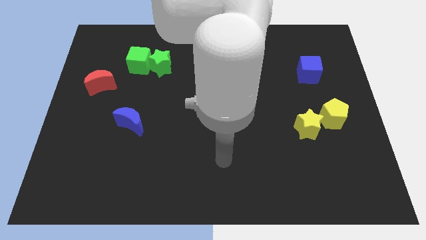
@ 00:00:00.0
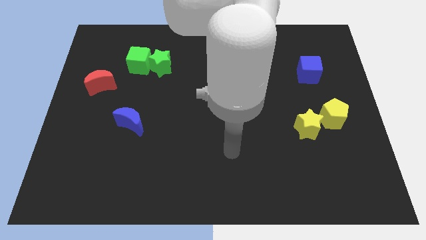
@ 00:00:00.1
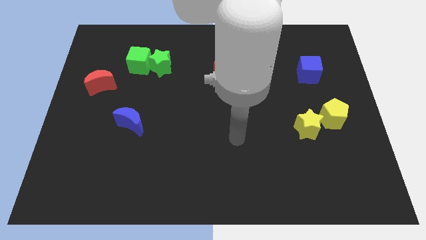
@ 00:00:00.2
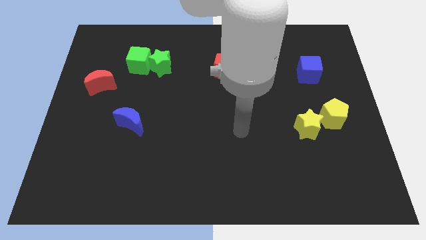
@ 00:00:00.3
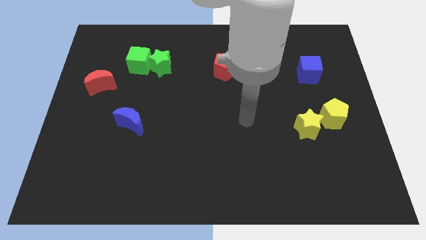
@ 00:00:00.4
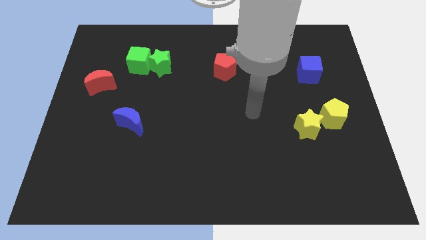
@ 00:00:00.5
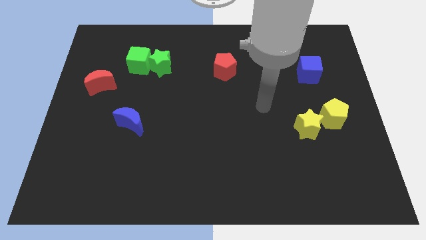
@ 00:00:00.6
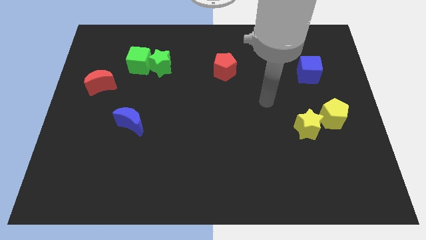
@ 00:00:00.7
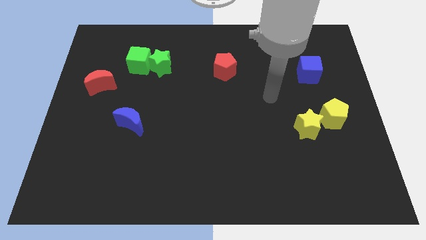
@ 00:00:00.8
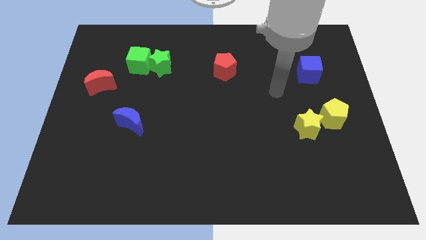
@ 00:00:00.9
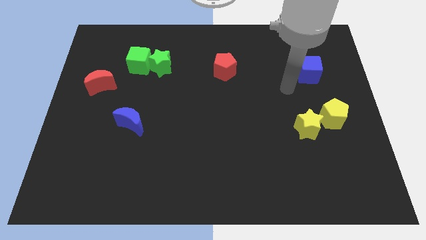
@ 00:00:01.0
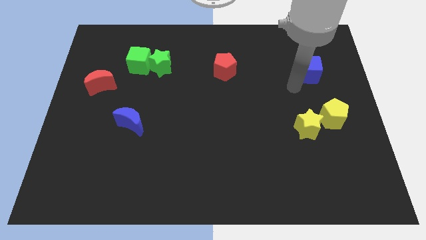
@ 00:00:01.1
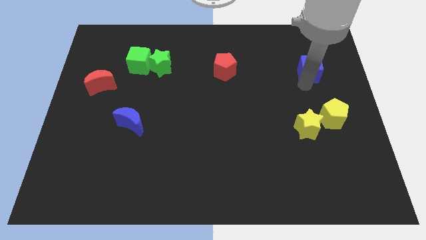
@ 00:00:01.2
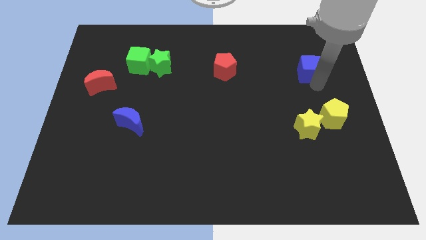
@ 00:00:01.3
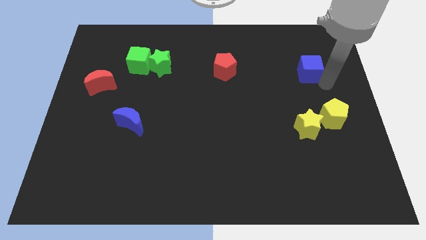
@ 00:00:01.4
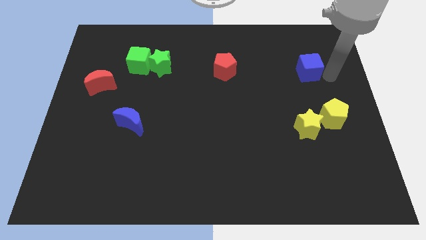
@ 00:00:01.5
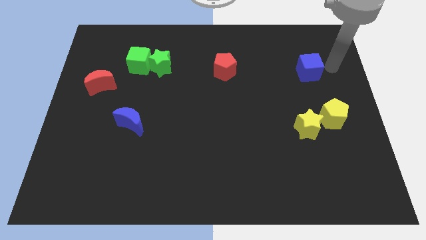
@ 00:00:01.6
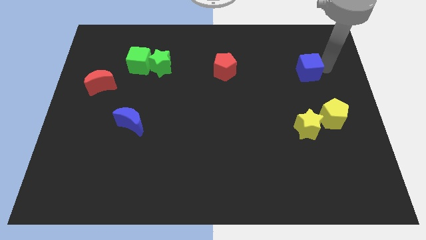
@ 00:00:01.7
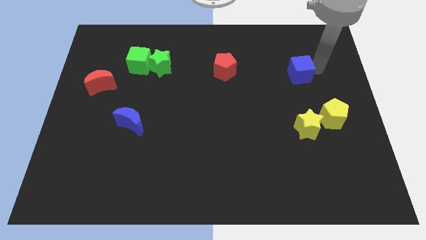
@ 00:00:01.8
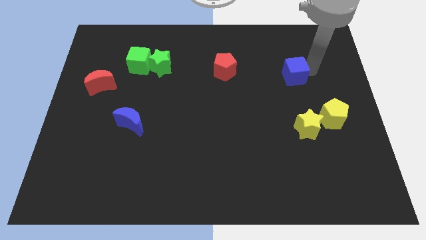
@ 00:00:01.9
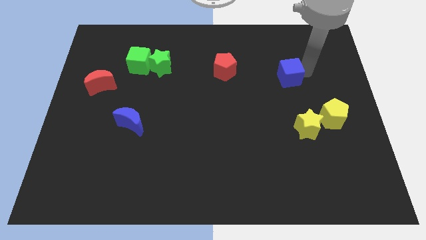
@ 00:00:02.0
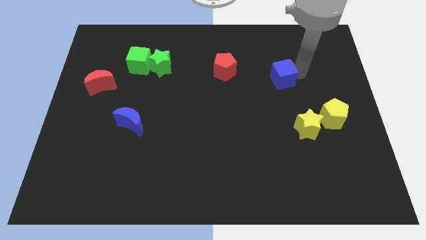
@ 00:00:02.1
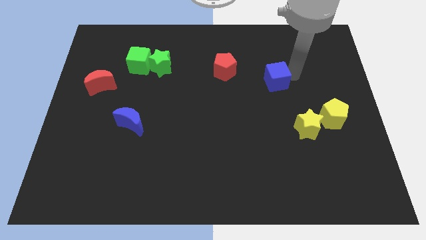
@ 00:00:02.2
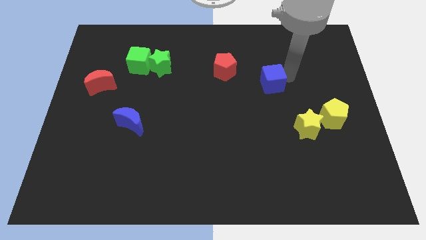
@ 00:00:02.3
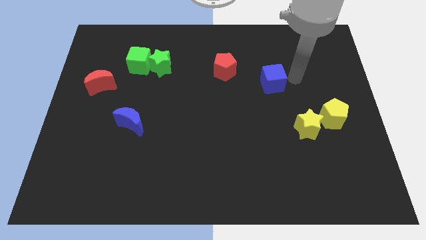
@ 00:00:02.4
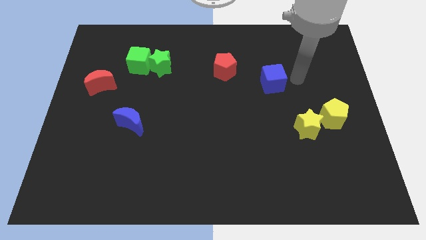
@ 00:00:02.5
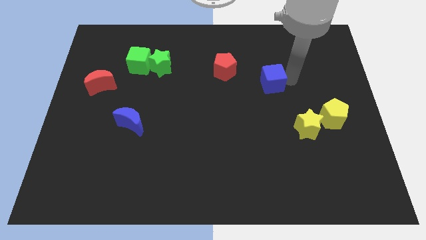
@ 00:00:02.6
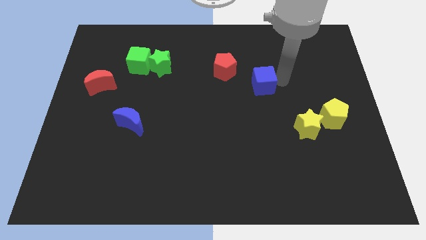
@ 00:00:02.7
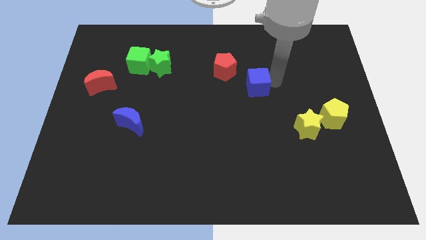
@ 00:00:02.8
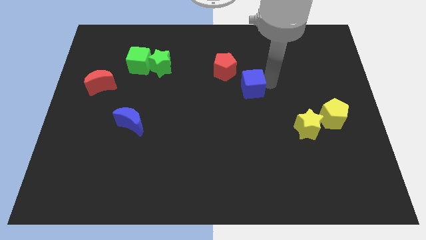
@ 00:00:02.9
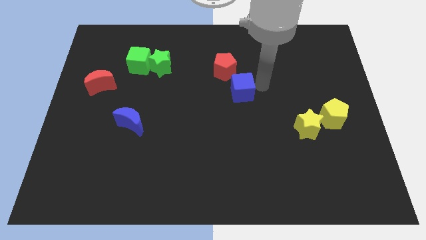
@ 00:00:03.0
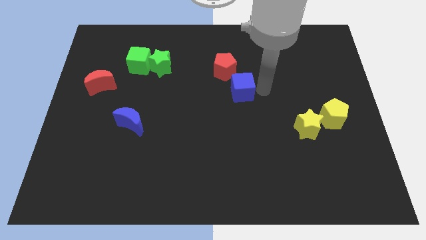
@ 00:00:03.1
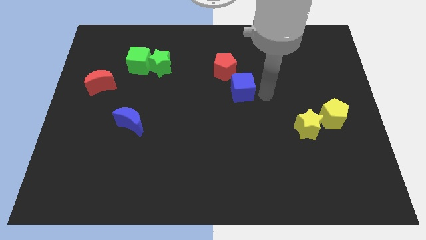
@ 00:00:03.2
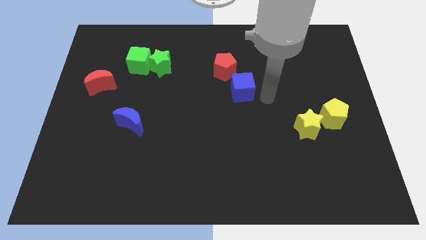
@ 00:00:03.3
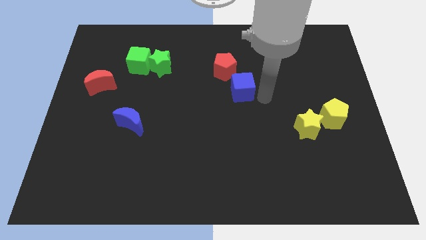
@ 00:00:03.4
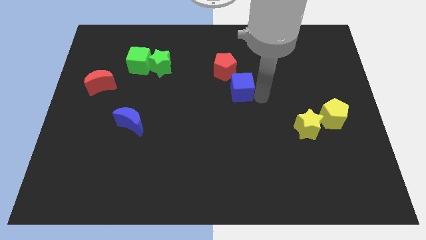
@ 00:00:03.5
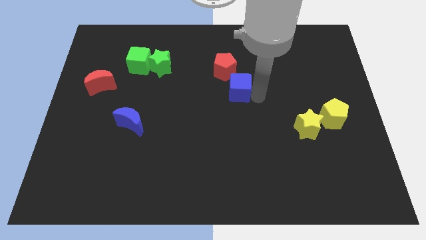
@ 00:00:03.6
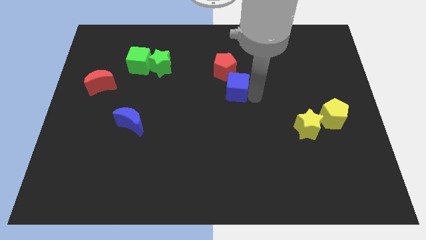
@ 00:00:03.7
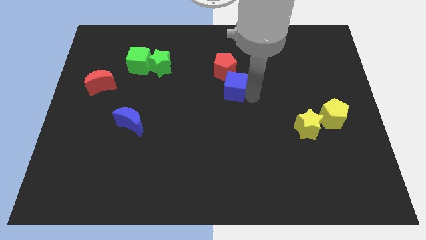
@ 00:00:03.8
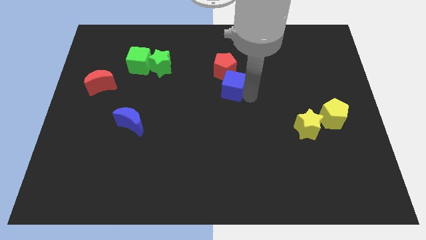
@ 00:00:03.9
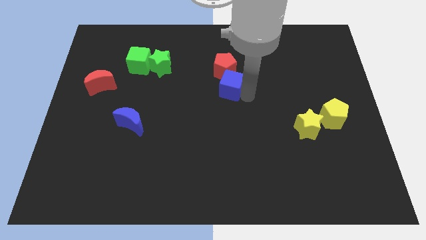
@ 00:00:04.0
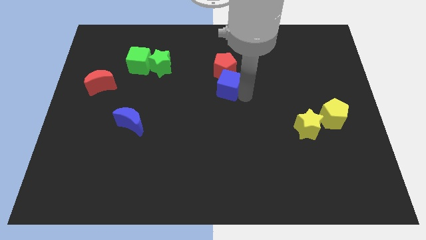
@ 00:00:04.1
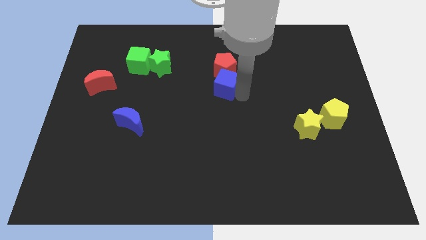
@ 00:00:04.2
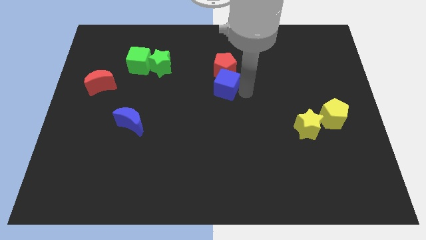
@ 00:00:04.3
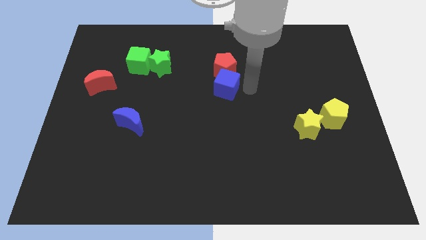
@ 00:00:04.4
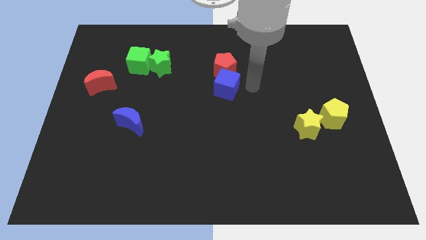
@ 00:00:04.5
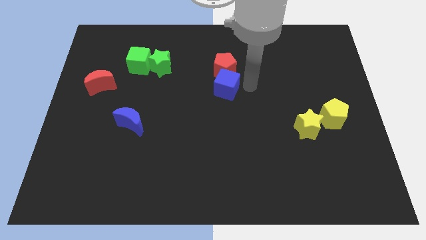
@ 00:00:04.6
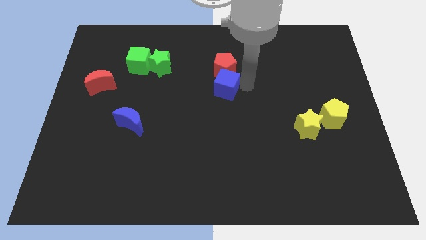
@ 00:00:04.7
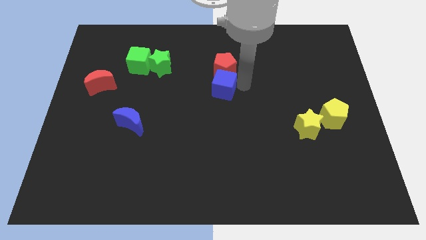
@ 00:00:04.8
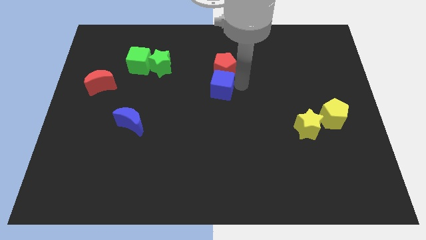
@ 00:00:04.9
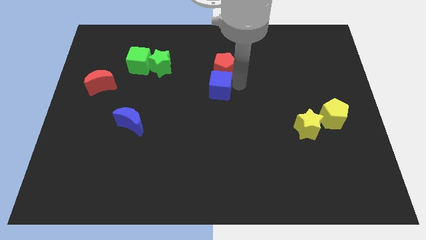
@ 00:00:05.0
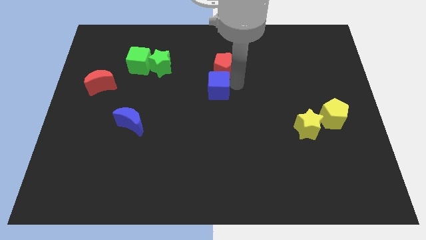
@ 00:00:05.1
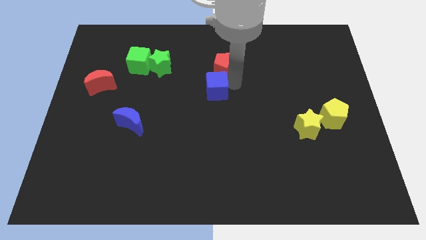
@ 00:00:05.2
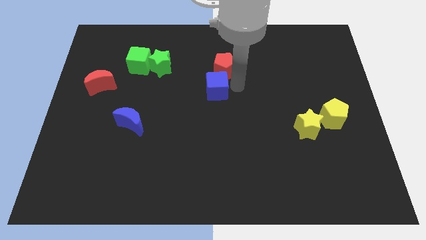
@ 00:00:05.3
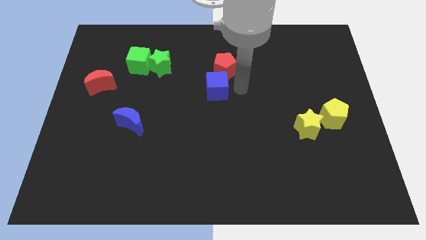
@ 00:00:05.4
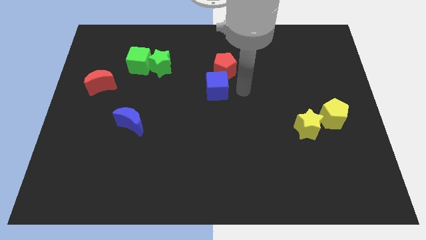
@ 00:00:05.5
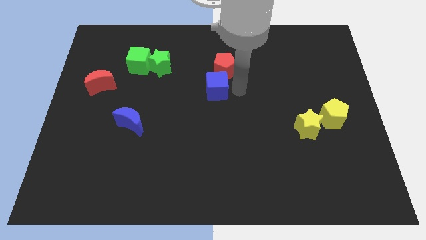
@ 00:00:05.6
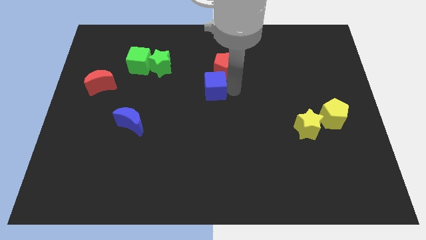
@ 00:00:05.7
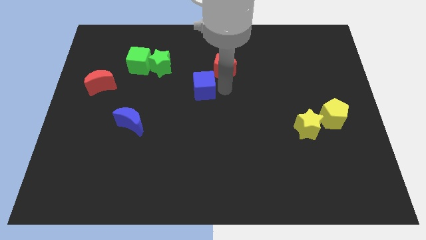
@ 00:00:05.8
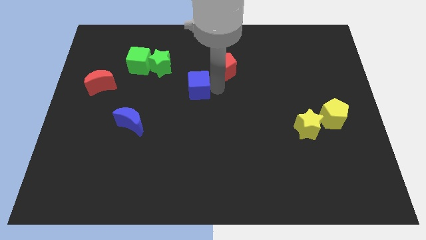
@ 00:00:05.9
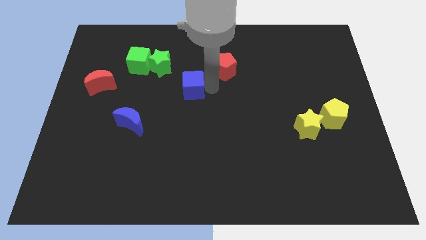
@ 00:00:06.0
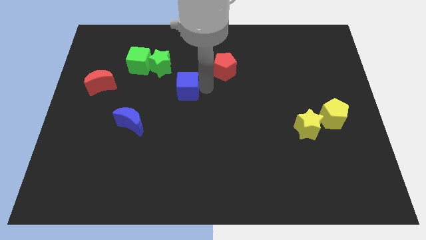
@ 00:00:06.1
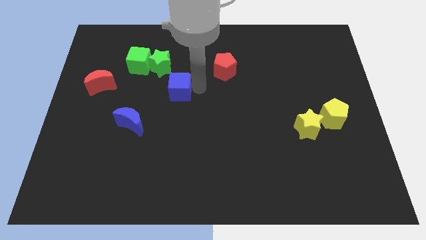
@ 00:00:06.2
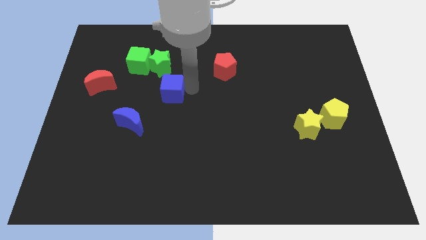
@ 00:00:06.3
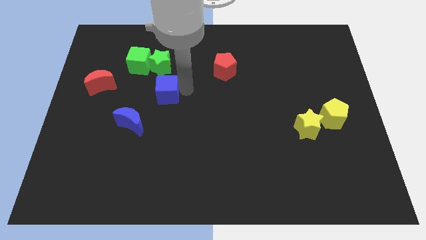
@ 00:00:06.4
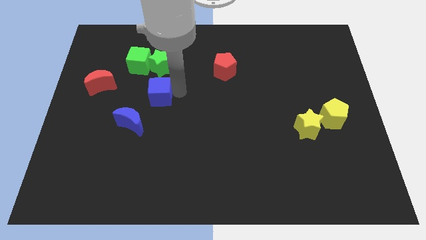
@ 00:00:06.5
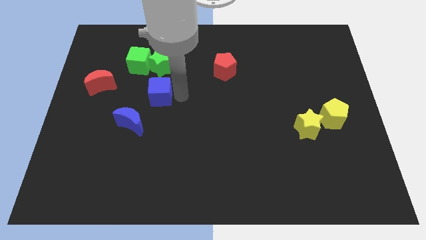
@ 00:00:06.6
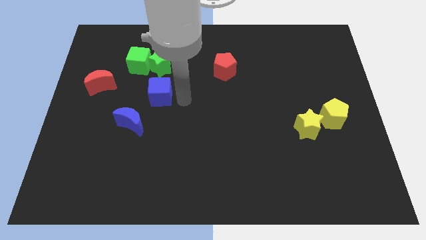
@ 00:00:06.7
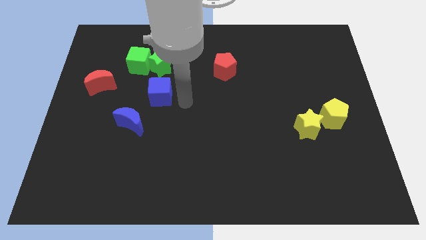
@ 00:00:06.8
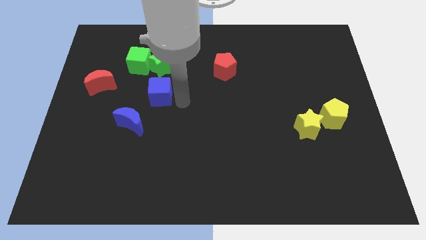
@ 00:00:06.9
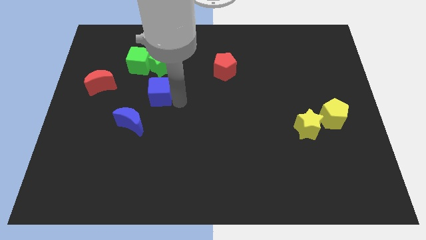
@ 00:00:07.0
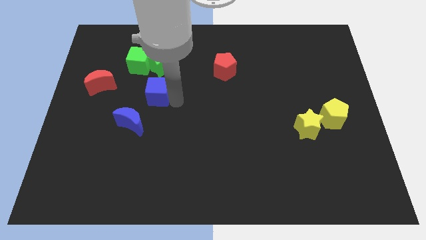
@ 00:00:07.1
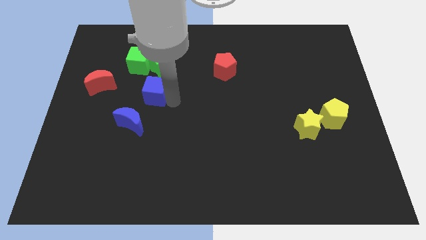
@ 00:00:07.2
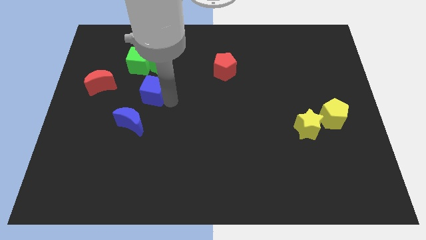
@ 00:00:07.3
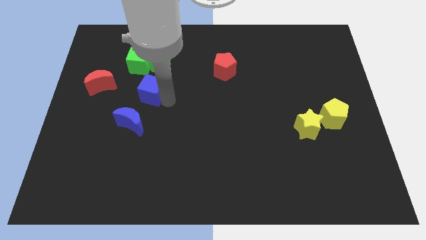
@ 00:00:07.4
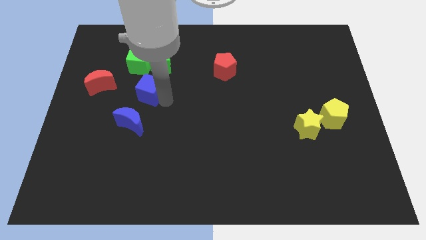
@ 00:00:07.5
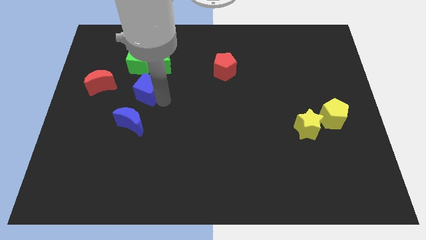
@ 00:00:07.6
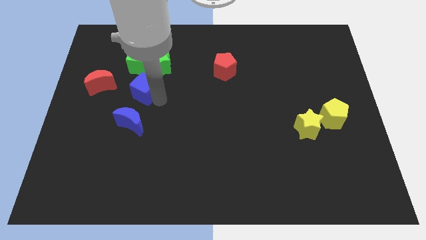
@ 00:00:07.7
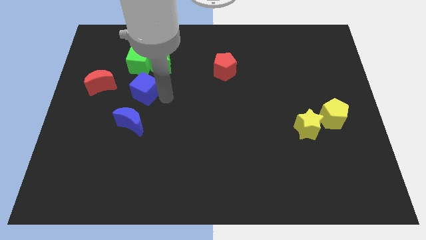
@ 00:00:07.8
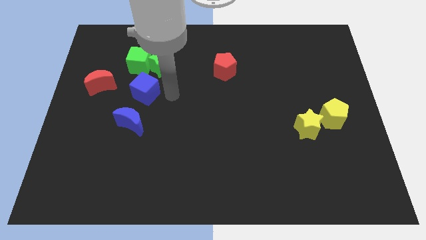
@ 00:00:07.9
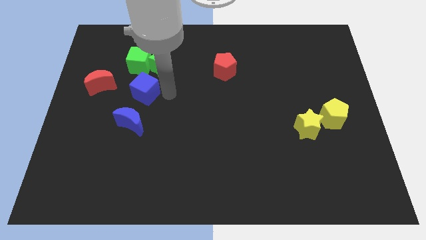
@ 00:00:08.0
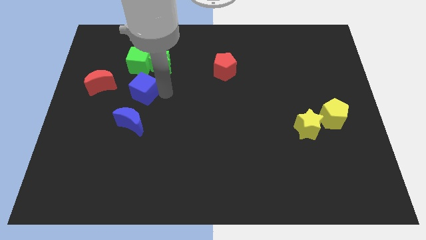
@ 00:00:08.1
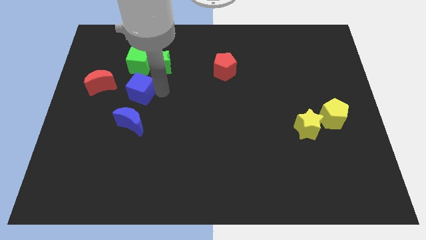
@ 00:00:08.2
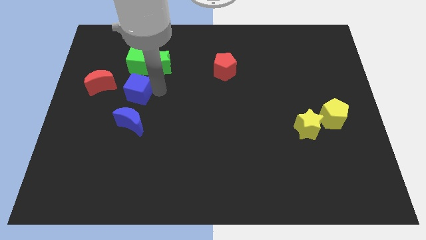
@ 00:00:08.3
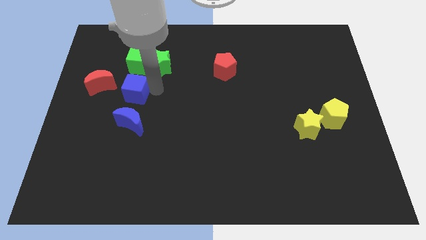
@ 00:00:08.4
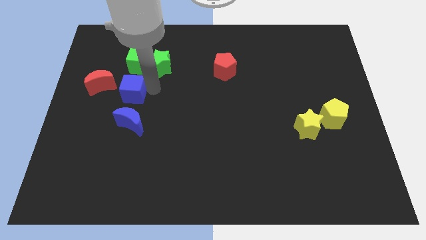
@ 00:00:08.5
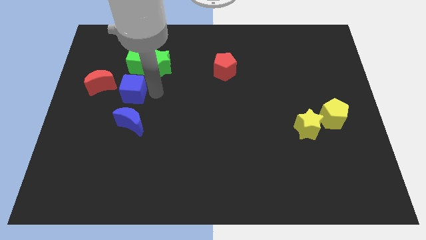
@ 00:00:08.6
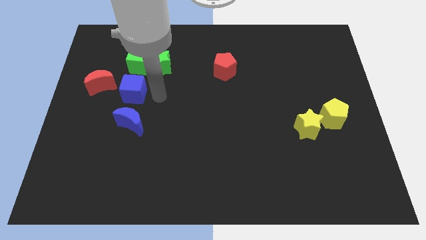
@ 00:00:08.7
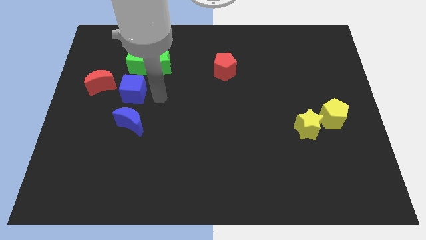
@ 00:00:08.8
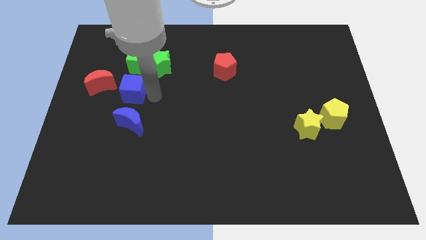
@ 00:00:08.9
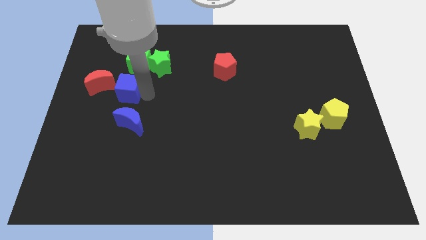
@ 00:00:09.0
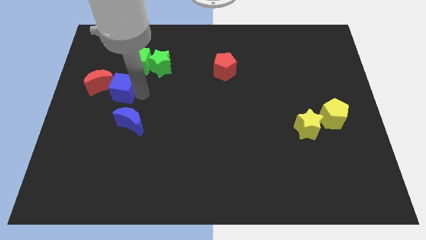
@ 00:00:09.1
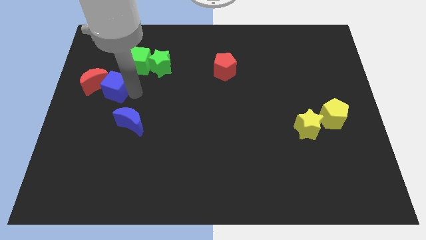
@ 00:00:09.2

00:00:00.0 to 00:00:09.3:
move the blue cube to the red moon
